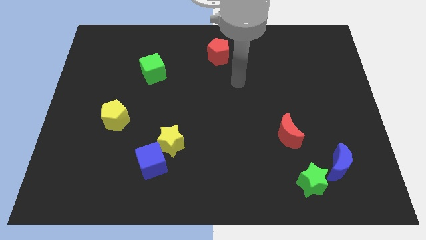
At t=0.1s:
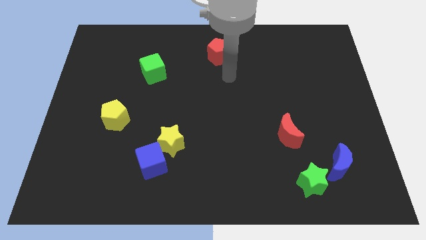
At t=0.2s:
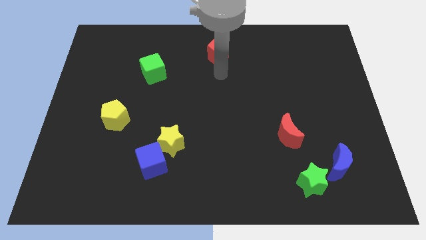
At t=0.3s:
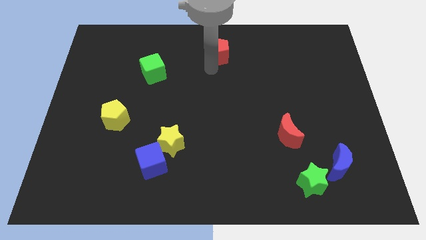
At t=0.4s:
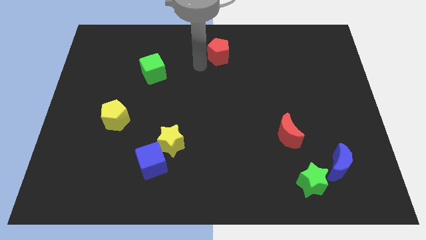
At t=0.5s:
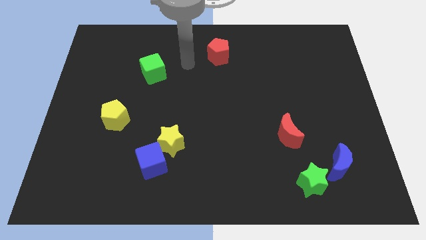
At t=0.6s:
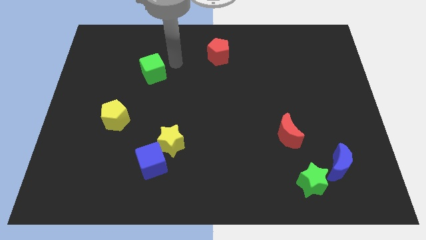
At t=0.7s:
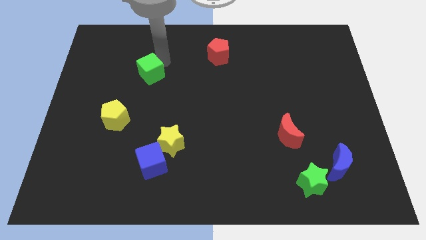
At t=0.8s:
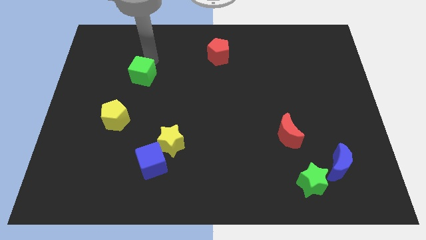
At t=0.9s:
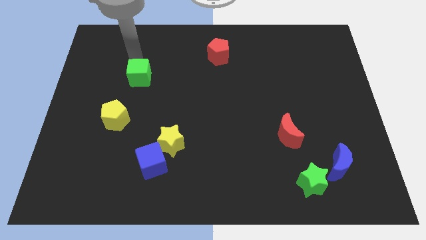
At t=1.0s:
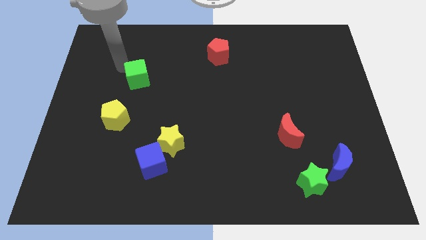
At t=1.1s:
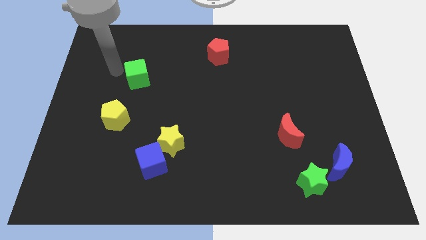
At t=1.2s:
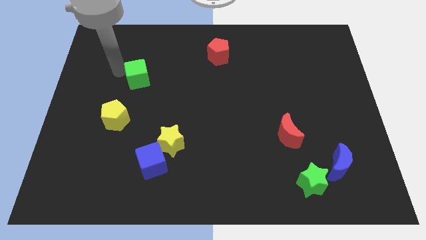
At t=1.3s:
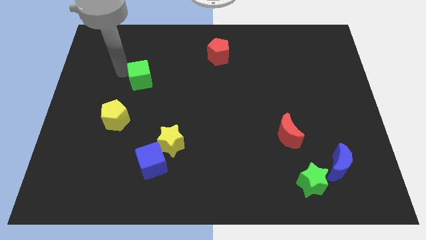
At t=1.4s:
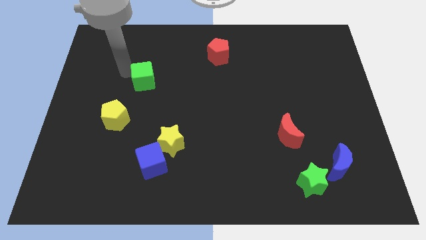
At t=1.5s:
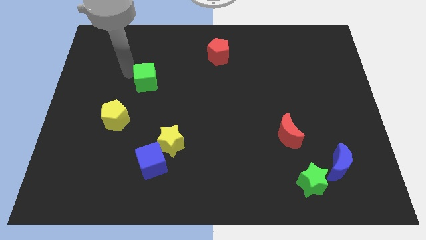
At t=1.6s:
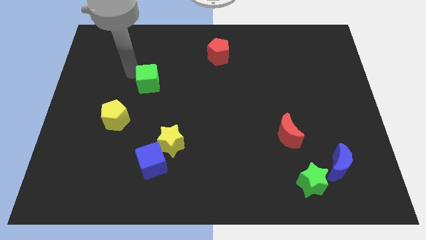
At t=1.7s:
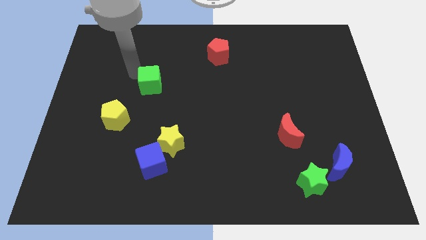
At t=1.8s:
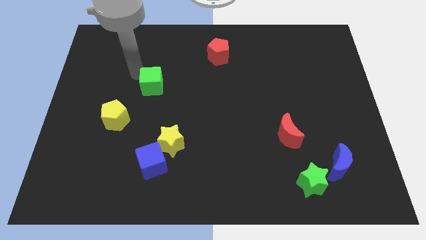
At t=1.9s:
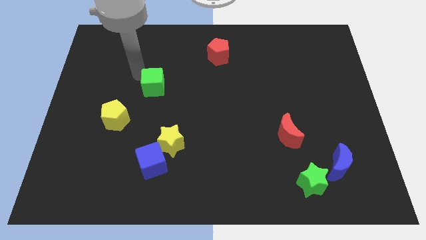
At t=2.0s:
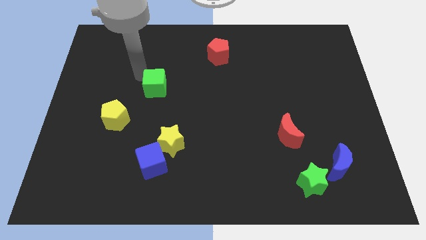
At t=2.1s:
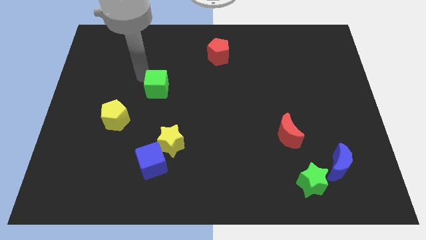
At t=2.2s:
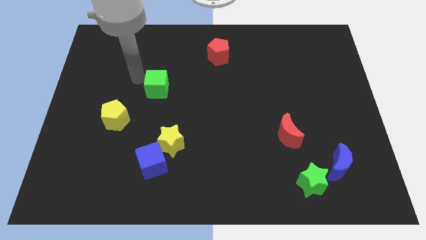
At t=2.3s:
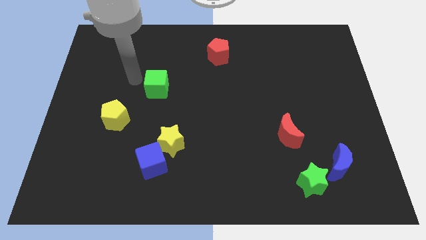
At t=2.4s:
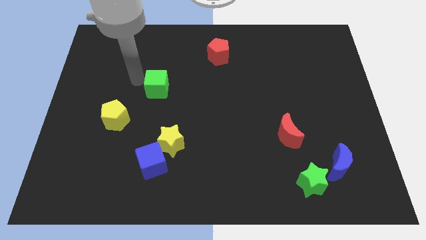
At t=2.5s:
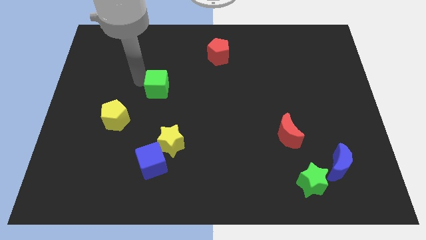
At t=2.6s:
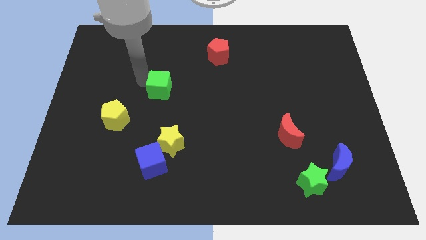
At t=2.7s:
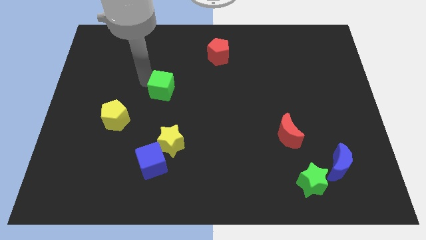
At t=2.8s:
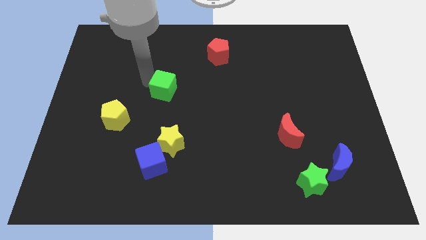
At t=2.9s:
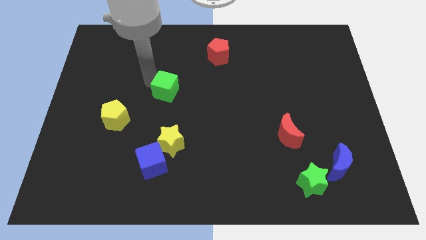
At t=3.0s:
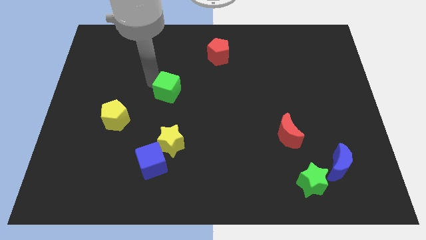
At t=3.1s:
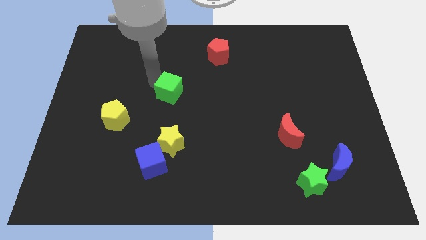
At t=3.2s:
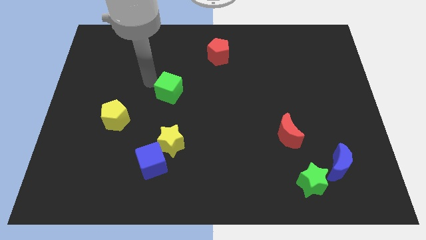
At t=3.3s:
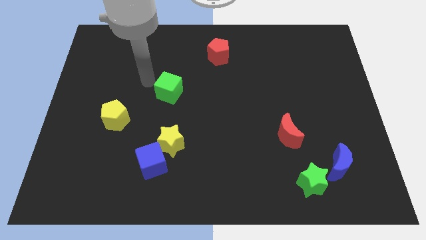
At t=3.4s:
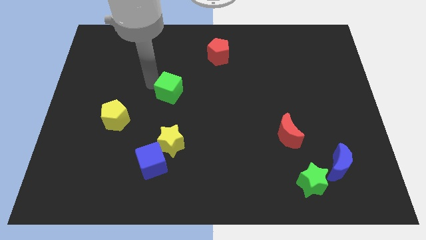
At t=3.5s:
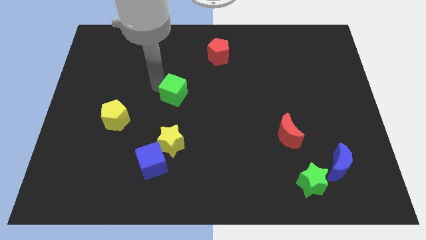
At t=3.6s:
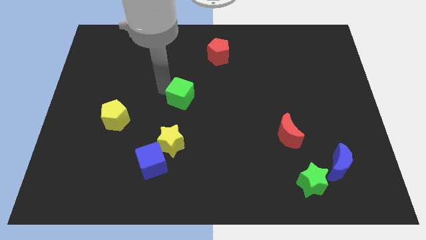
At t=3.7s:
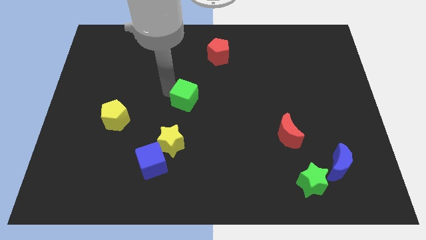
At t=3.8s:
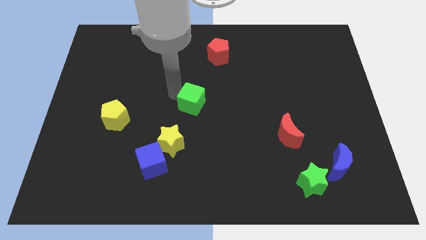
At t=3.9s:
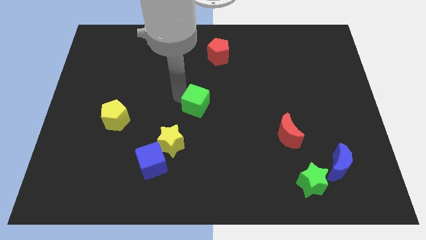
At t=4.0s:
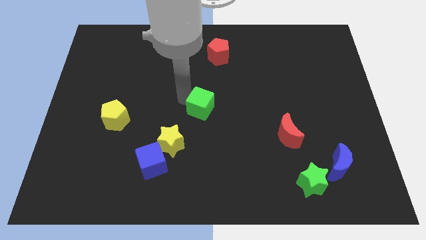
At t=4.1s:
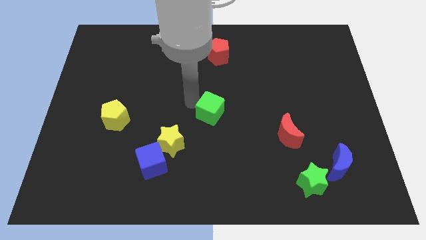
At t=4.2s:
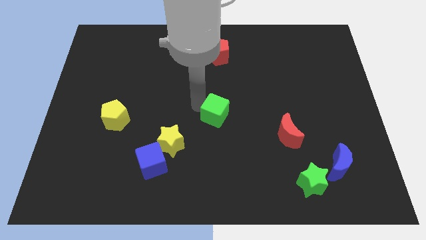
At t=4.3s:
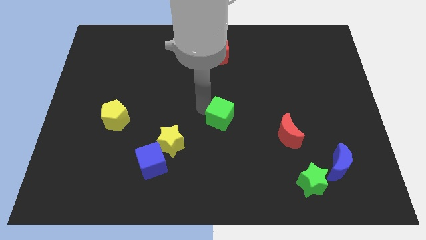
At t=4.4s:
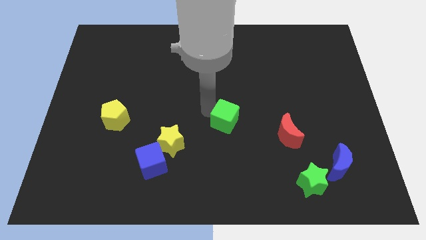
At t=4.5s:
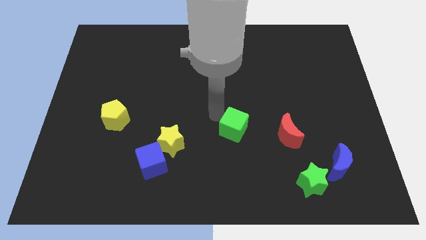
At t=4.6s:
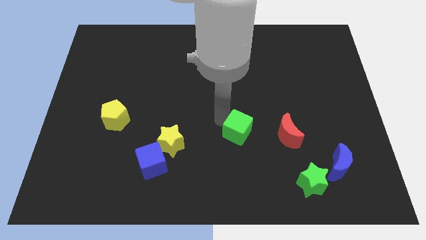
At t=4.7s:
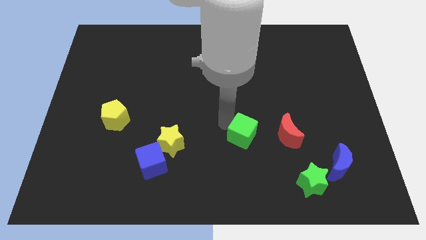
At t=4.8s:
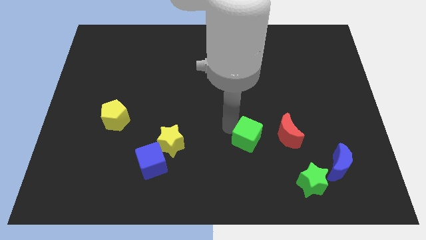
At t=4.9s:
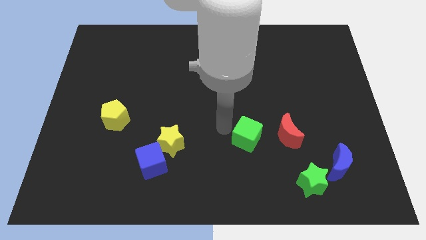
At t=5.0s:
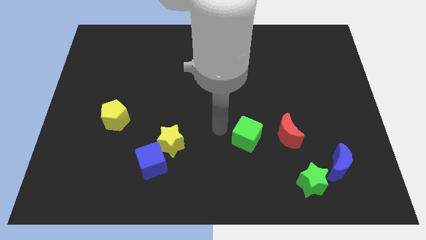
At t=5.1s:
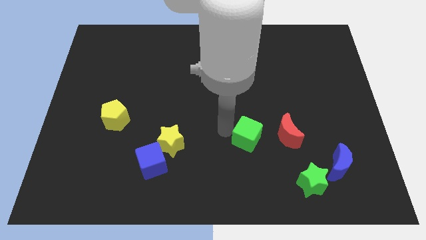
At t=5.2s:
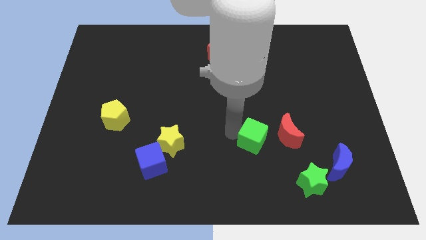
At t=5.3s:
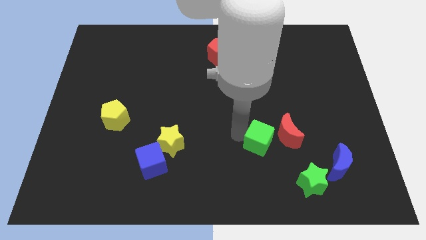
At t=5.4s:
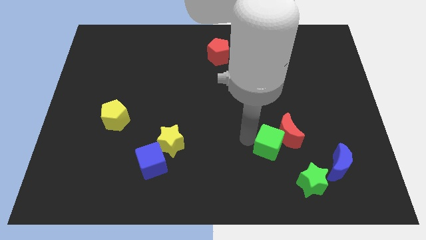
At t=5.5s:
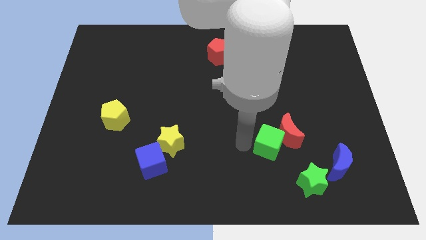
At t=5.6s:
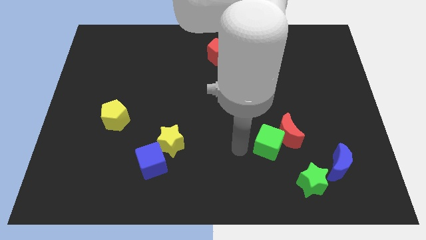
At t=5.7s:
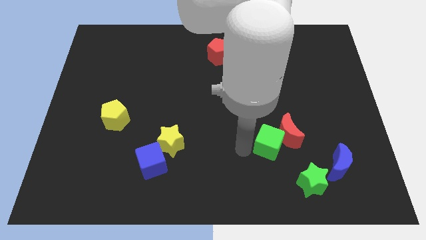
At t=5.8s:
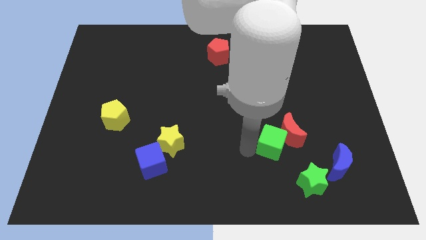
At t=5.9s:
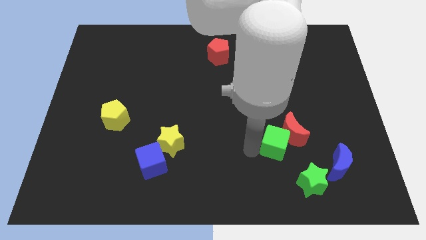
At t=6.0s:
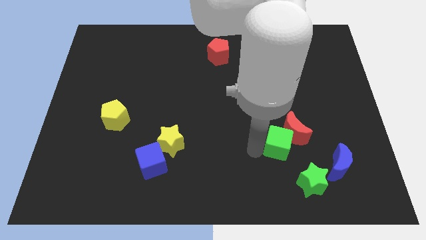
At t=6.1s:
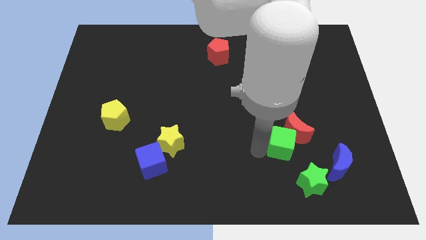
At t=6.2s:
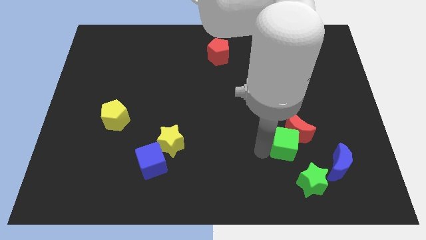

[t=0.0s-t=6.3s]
push the green cube above the green star

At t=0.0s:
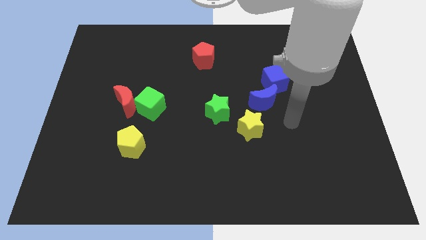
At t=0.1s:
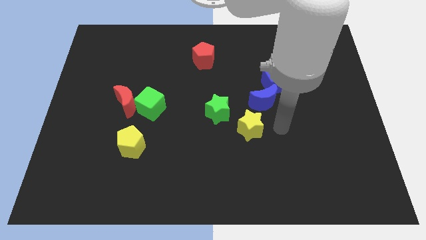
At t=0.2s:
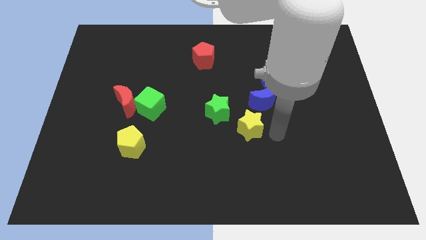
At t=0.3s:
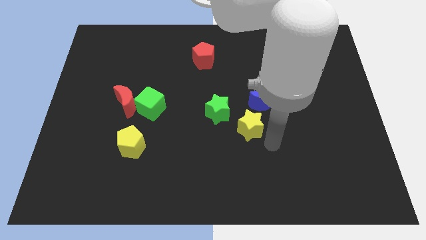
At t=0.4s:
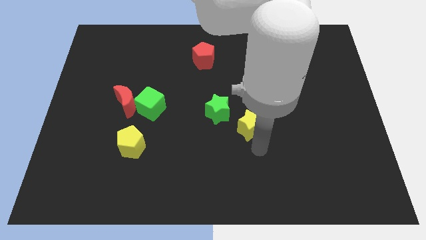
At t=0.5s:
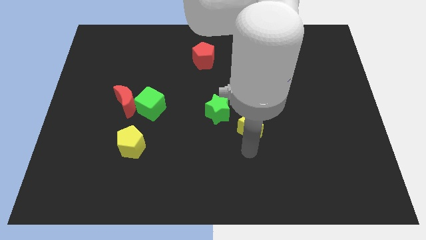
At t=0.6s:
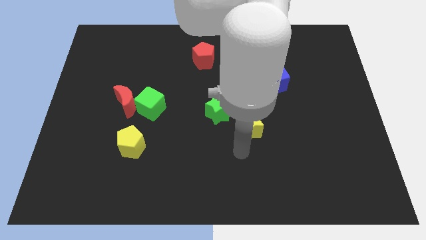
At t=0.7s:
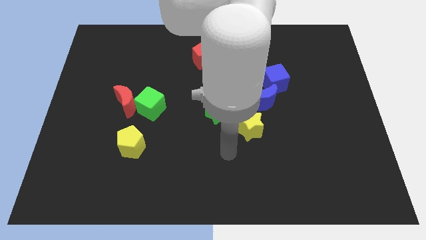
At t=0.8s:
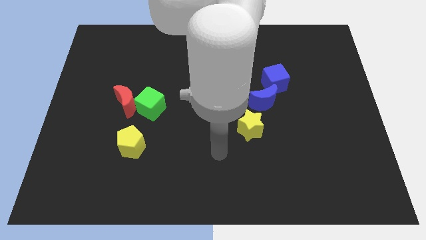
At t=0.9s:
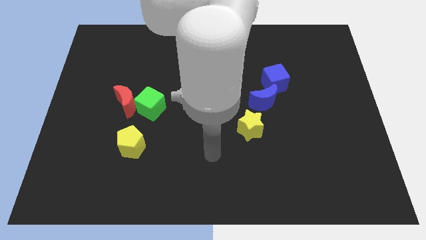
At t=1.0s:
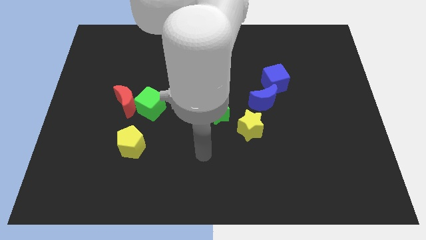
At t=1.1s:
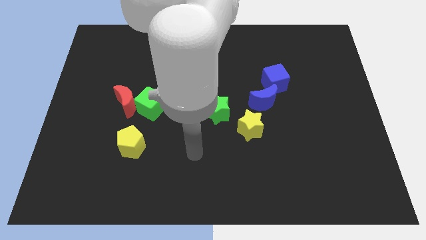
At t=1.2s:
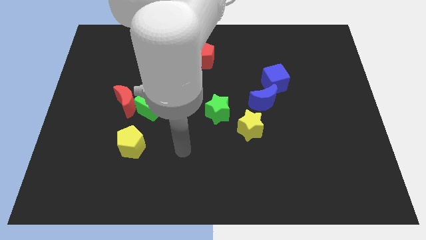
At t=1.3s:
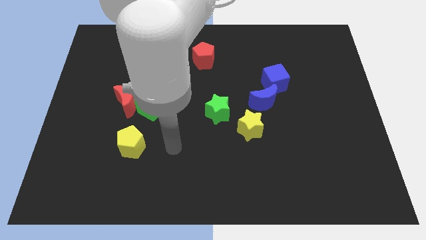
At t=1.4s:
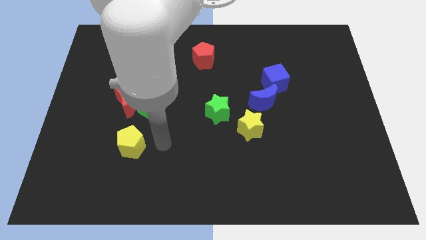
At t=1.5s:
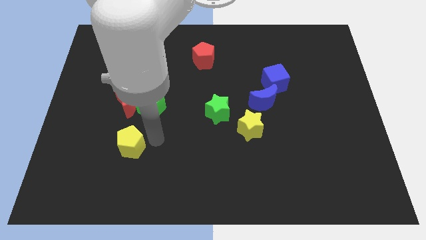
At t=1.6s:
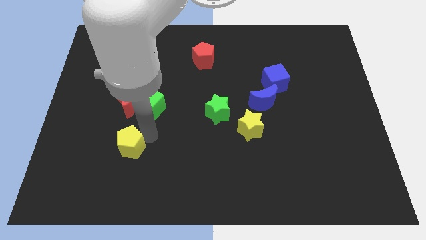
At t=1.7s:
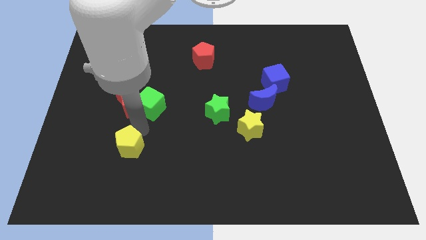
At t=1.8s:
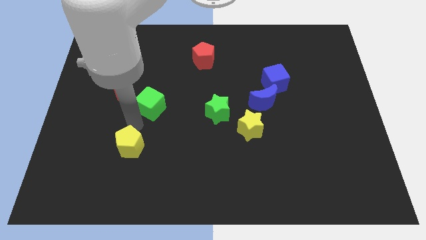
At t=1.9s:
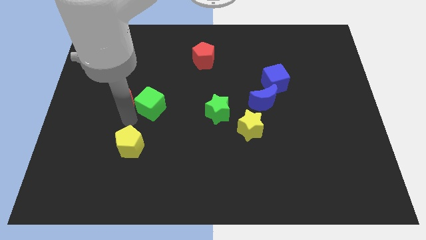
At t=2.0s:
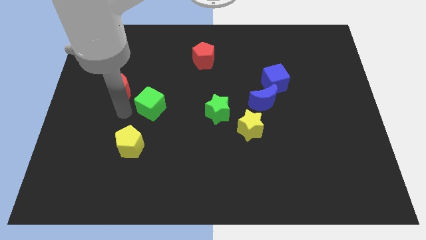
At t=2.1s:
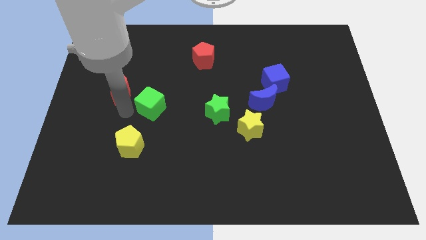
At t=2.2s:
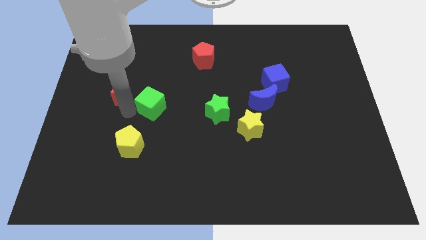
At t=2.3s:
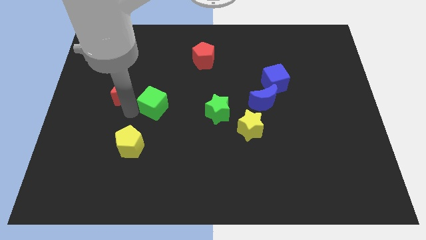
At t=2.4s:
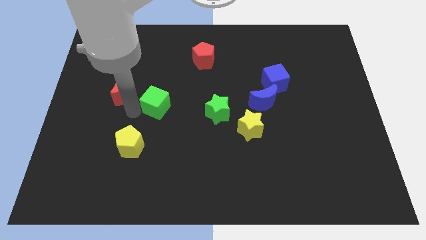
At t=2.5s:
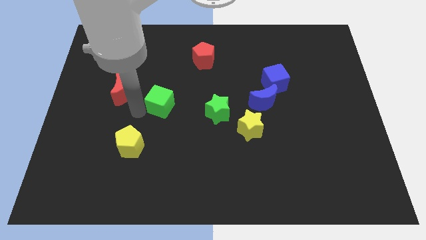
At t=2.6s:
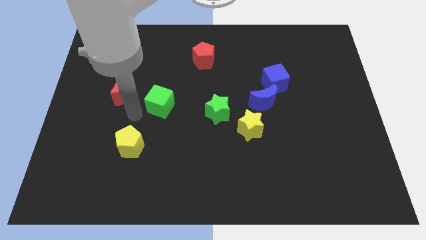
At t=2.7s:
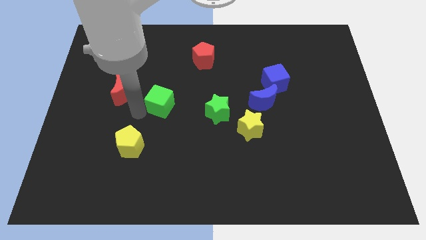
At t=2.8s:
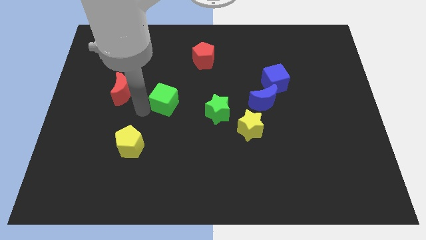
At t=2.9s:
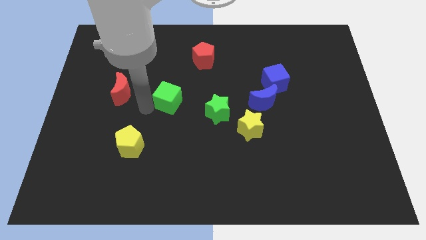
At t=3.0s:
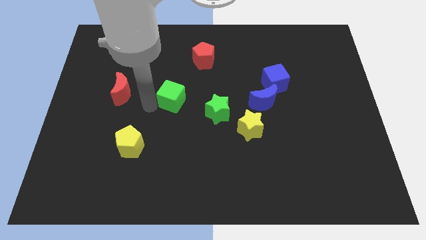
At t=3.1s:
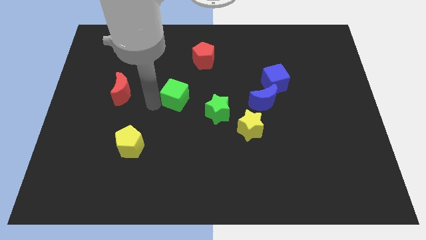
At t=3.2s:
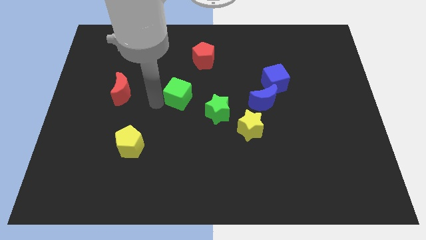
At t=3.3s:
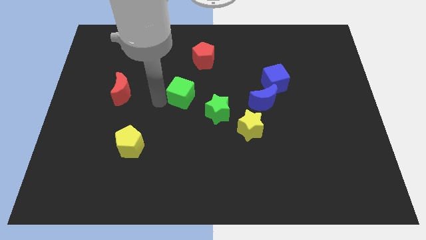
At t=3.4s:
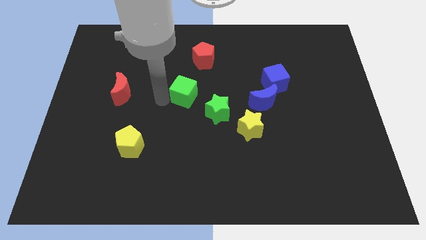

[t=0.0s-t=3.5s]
slide the green cube below the red pentagon
